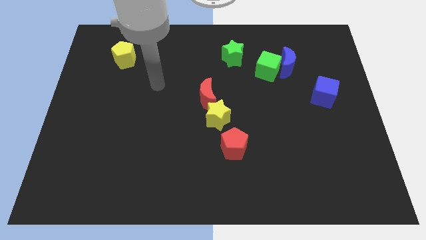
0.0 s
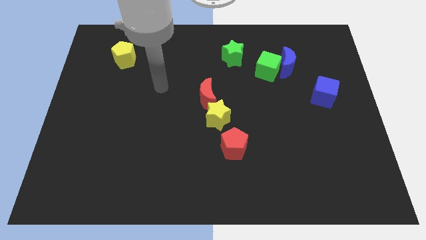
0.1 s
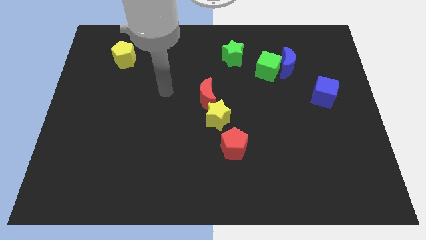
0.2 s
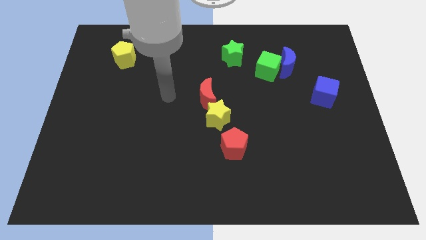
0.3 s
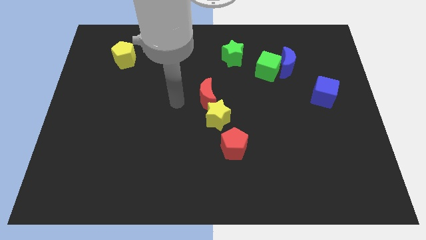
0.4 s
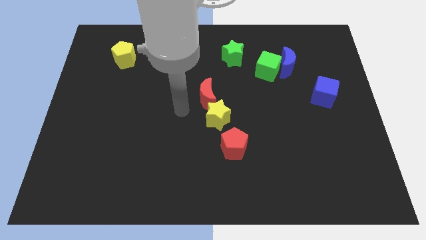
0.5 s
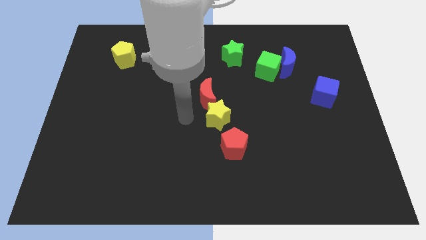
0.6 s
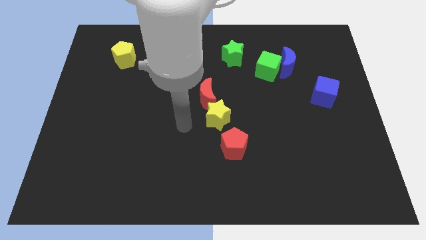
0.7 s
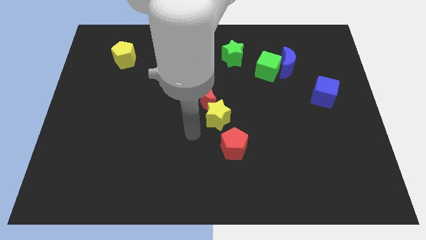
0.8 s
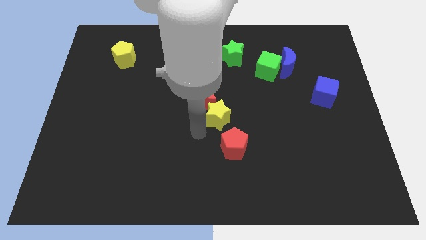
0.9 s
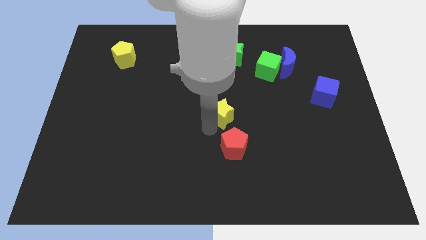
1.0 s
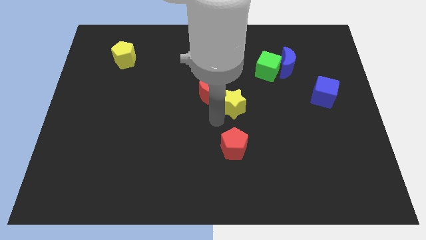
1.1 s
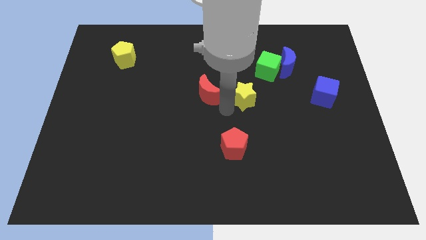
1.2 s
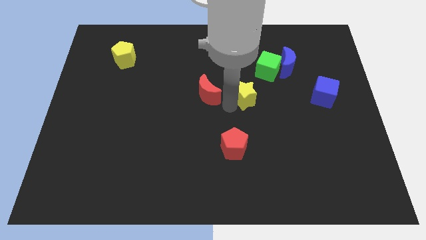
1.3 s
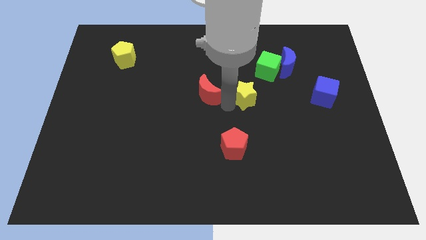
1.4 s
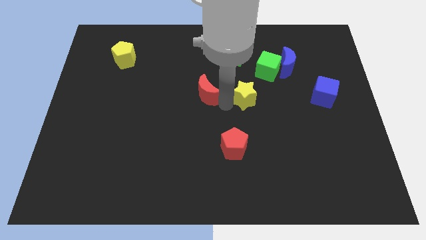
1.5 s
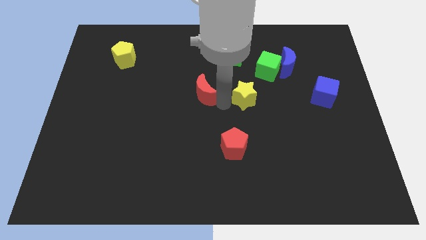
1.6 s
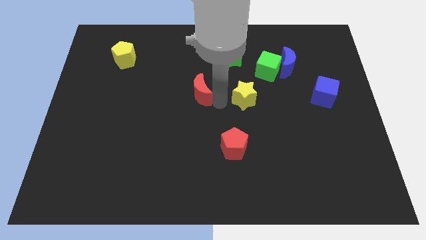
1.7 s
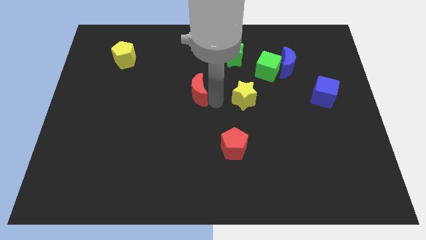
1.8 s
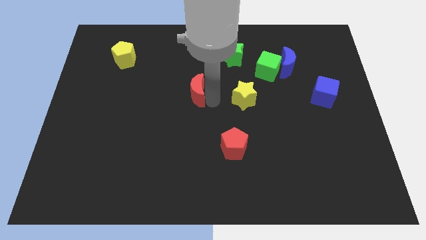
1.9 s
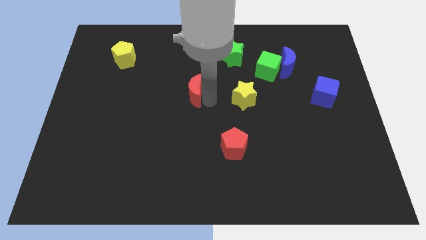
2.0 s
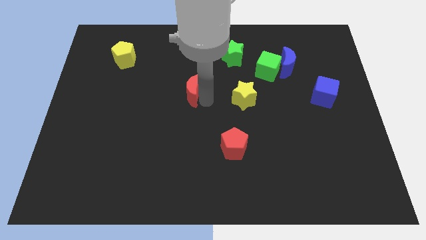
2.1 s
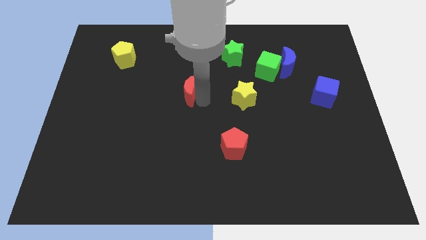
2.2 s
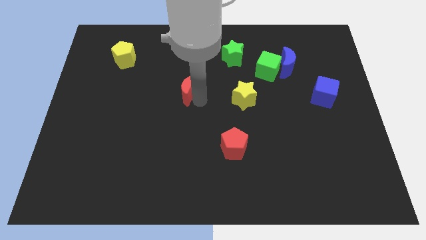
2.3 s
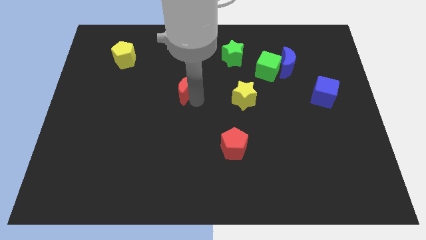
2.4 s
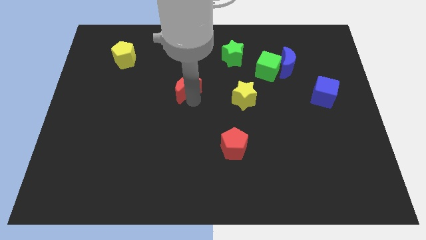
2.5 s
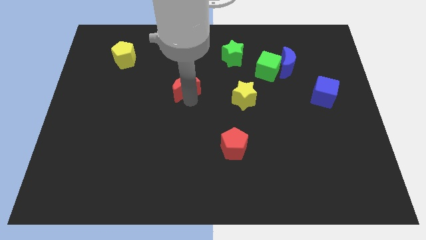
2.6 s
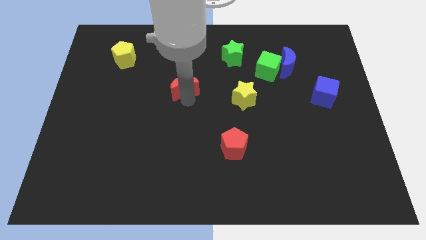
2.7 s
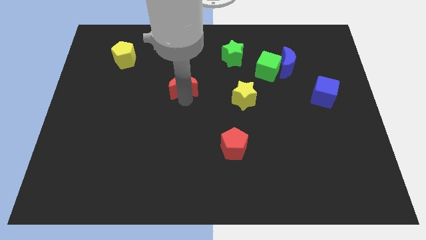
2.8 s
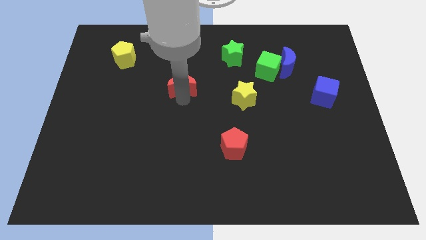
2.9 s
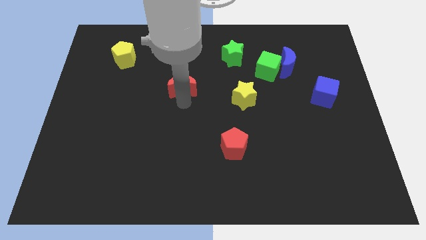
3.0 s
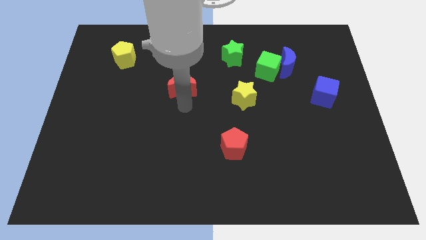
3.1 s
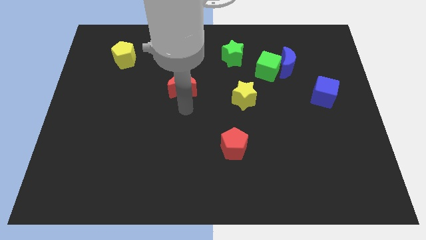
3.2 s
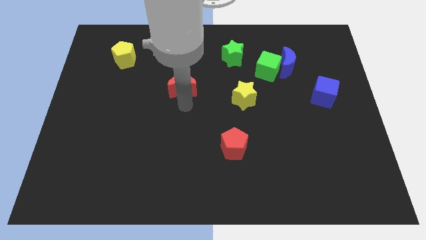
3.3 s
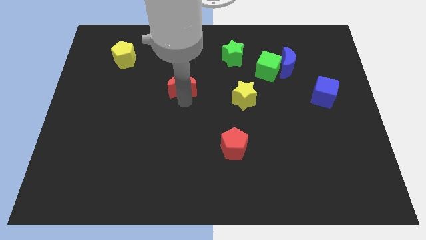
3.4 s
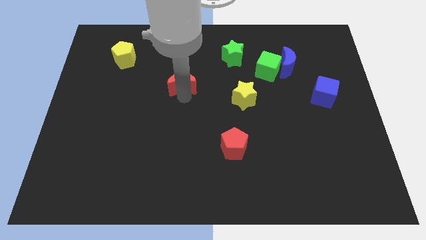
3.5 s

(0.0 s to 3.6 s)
push the red moon upwards and to the left diagonally a little bit

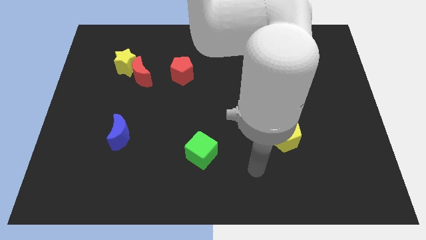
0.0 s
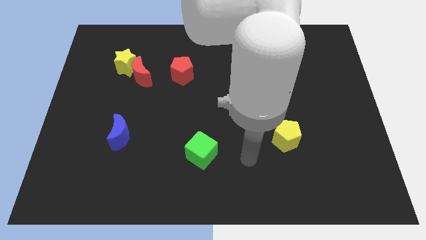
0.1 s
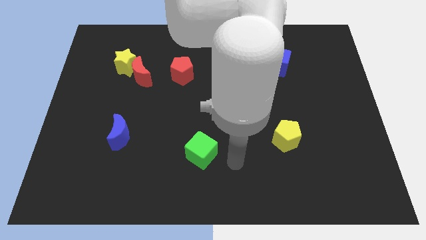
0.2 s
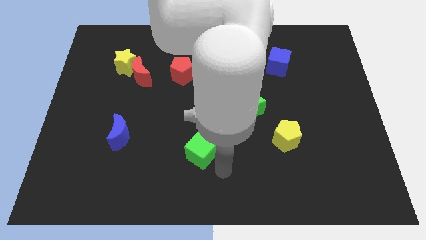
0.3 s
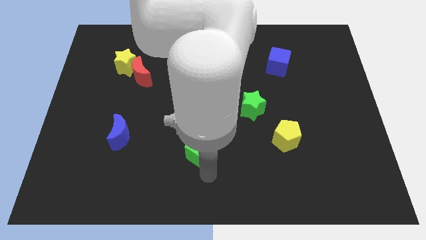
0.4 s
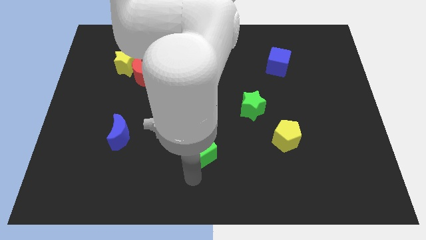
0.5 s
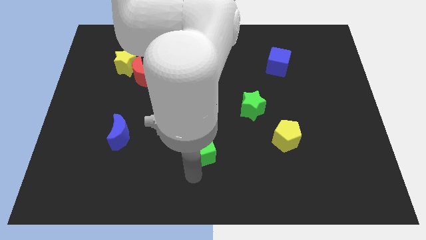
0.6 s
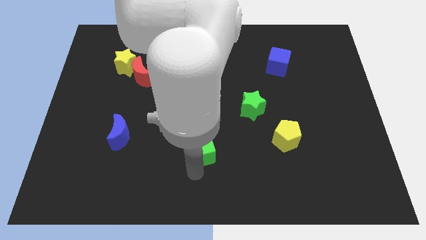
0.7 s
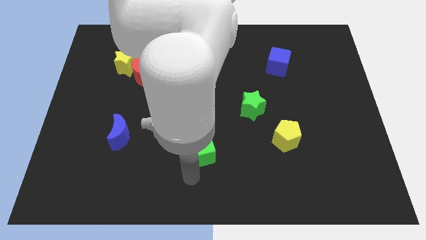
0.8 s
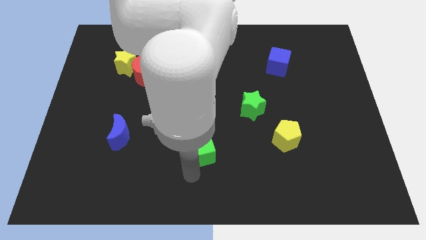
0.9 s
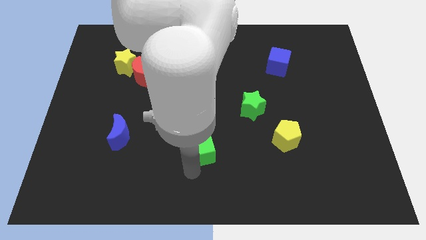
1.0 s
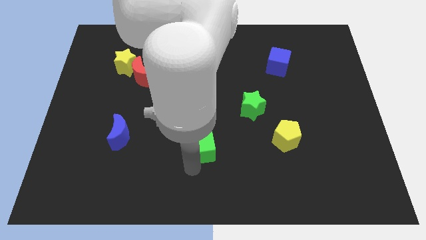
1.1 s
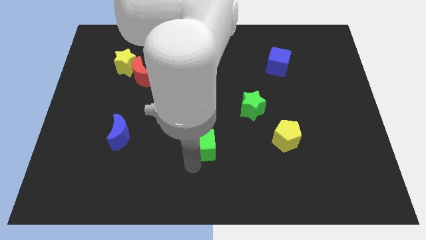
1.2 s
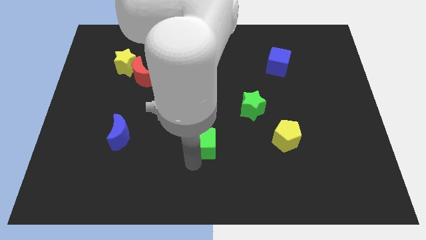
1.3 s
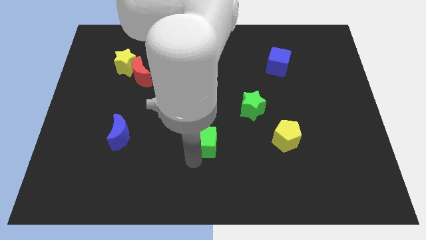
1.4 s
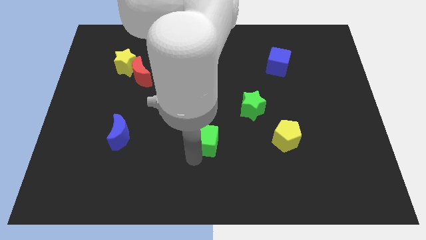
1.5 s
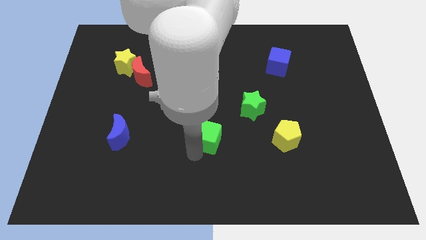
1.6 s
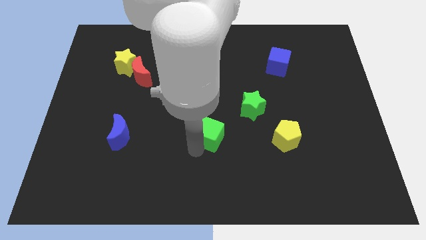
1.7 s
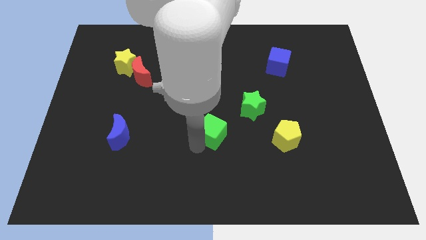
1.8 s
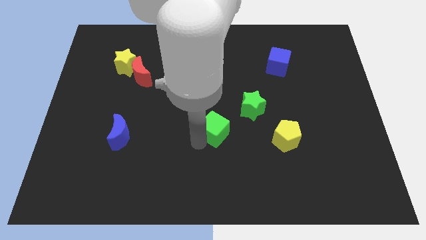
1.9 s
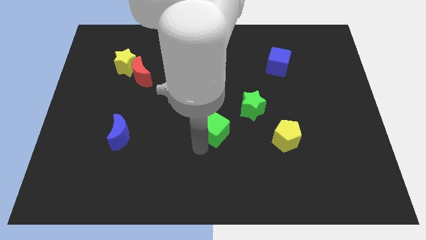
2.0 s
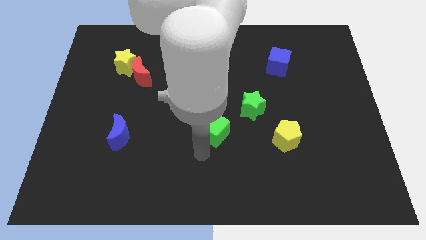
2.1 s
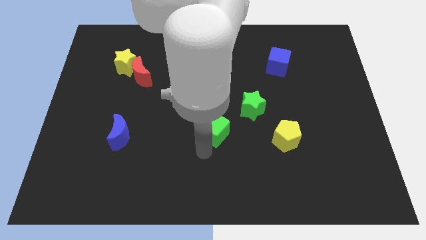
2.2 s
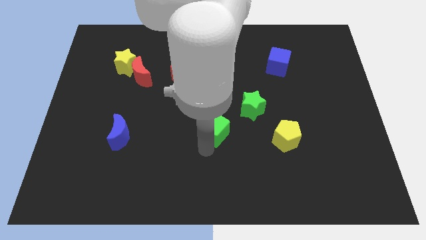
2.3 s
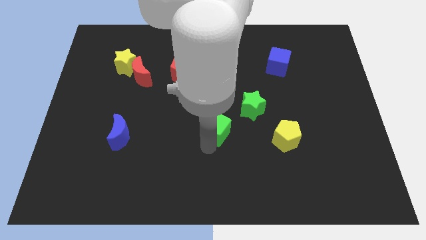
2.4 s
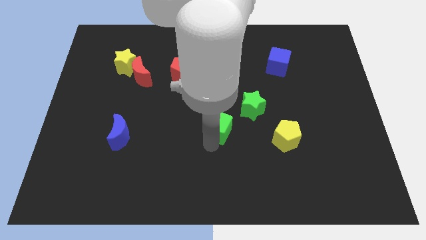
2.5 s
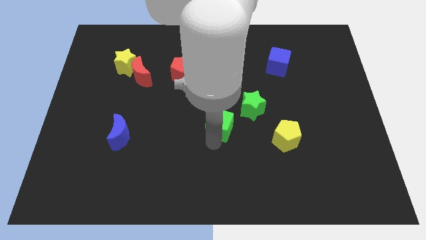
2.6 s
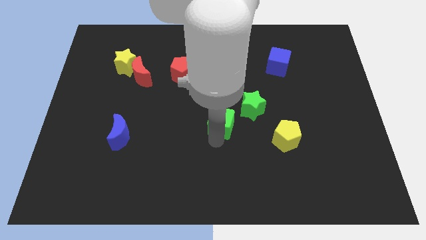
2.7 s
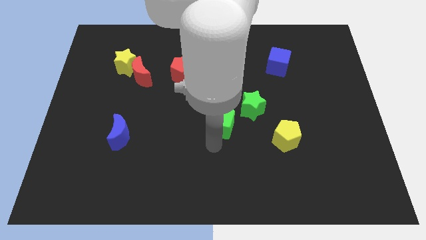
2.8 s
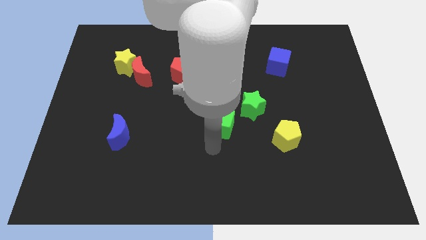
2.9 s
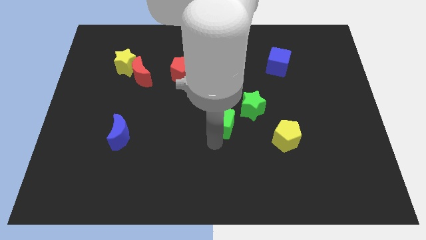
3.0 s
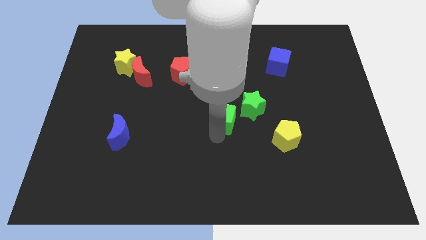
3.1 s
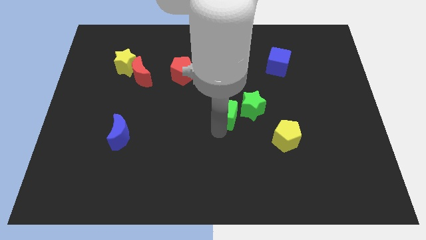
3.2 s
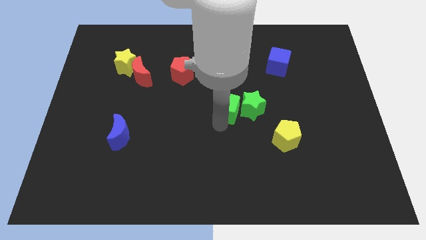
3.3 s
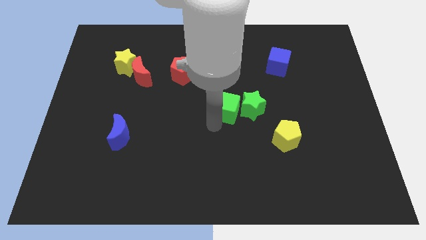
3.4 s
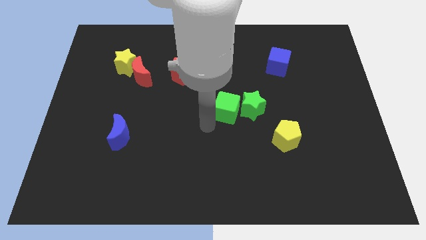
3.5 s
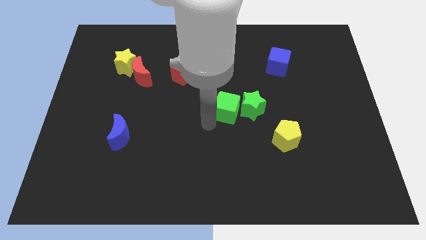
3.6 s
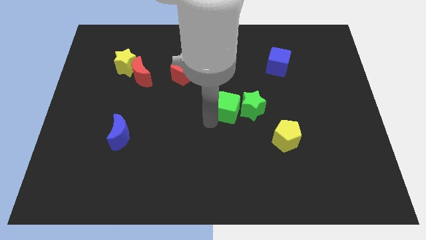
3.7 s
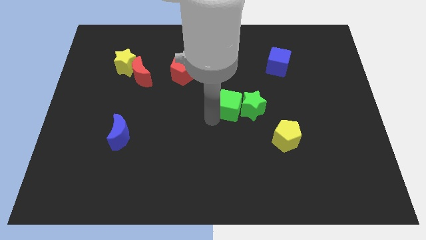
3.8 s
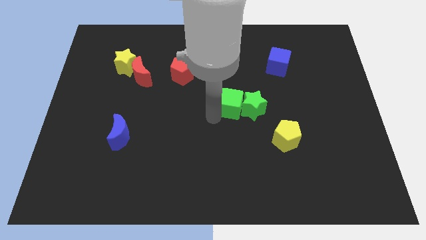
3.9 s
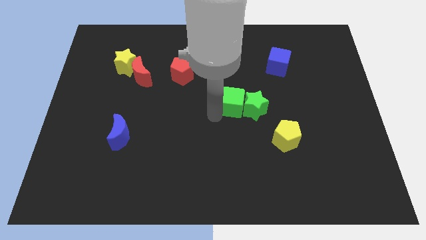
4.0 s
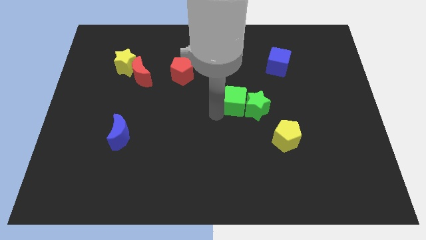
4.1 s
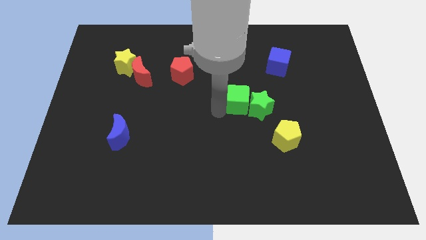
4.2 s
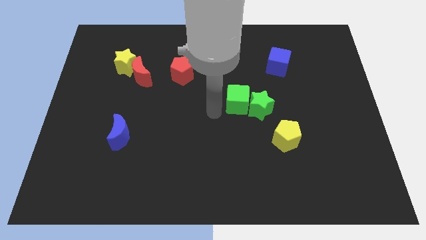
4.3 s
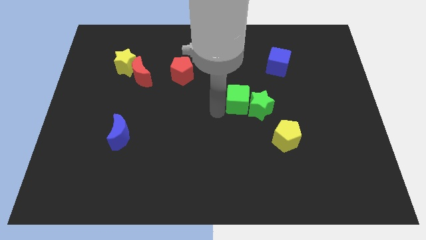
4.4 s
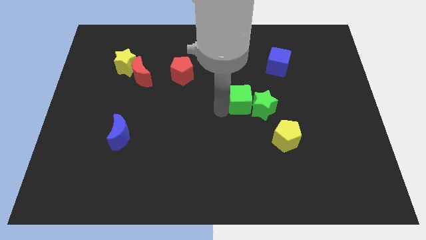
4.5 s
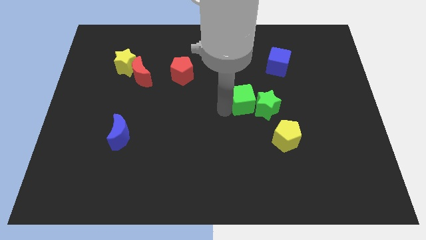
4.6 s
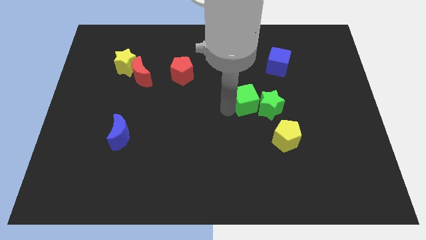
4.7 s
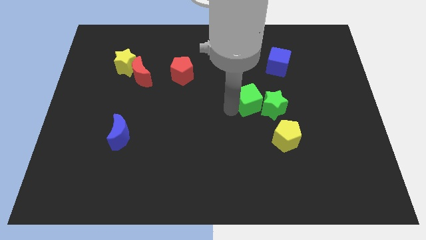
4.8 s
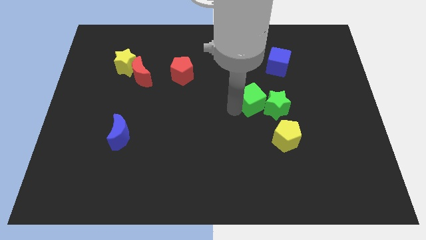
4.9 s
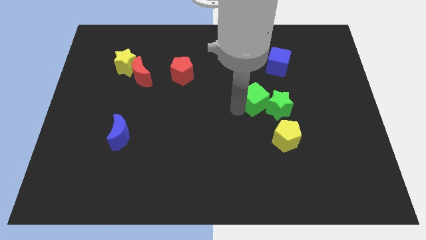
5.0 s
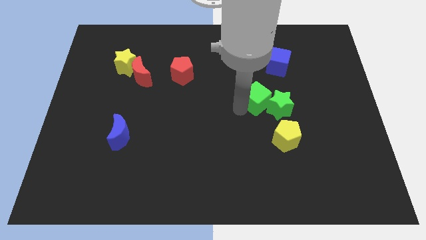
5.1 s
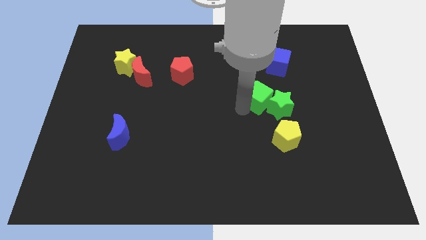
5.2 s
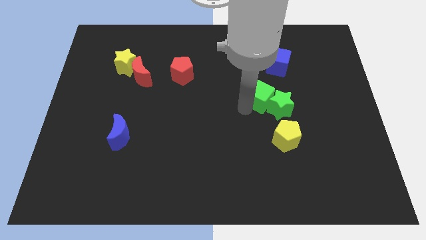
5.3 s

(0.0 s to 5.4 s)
move the green cube diagonally upwards and right
